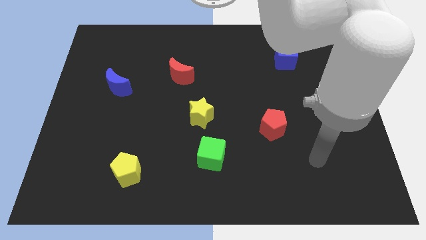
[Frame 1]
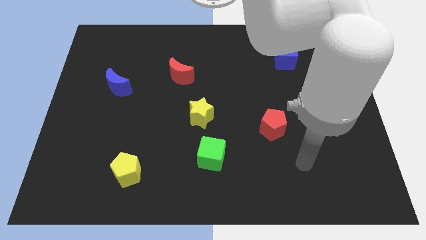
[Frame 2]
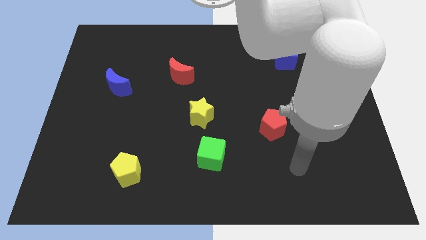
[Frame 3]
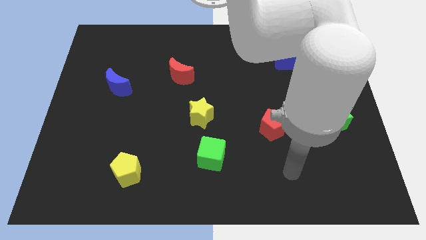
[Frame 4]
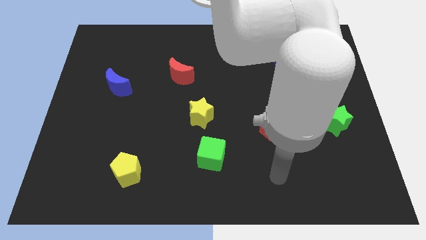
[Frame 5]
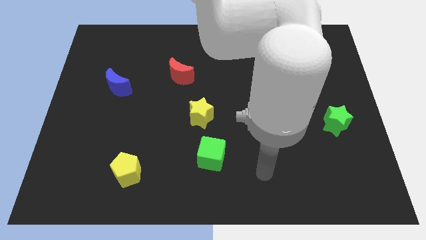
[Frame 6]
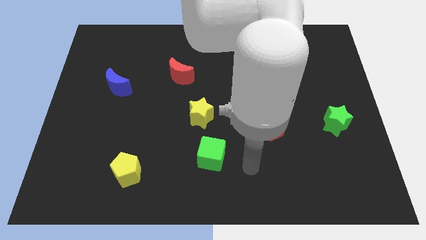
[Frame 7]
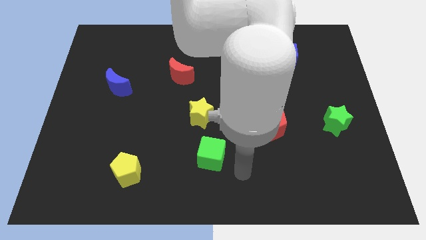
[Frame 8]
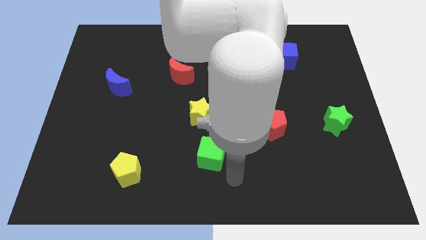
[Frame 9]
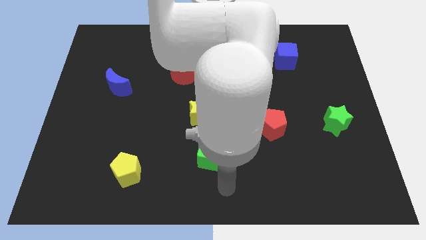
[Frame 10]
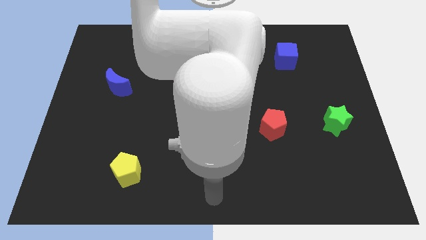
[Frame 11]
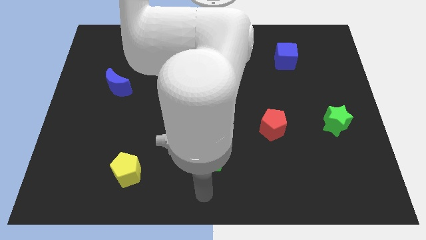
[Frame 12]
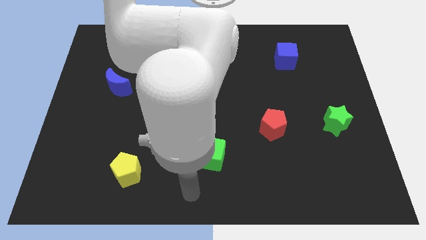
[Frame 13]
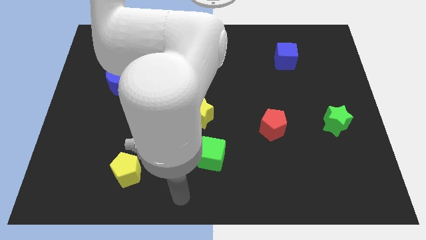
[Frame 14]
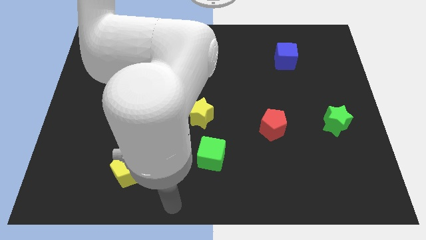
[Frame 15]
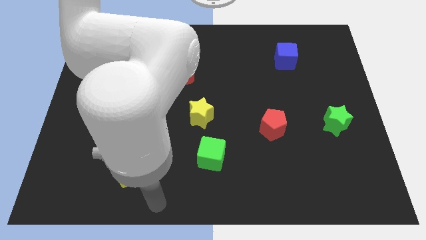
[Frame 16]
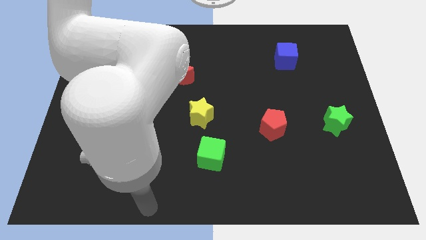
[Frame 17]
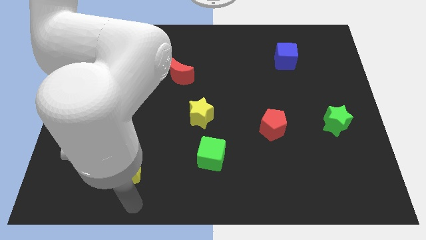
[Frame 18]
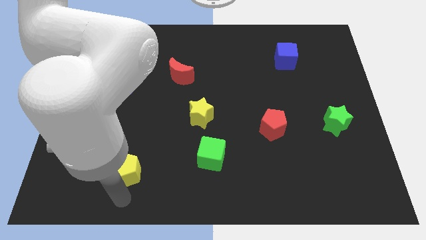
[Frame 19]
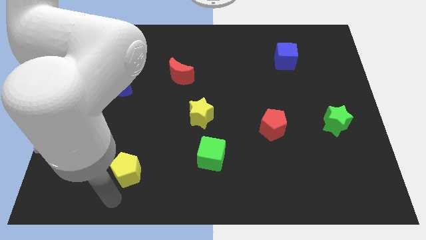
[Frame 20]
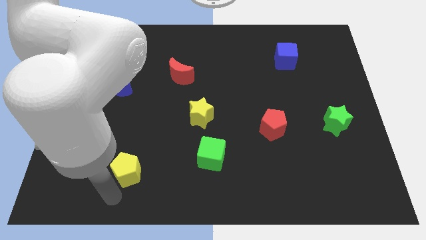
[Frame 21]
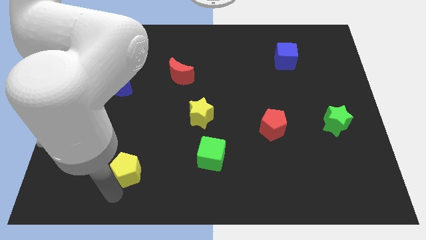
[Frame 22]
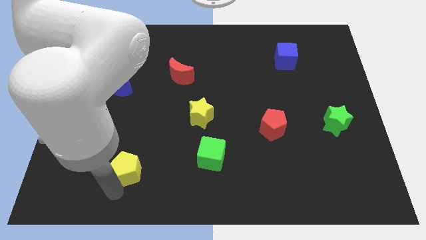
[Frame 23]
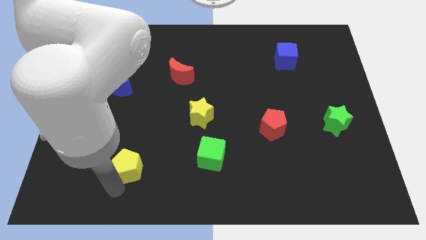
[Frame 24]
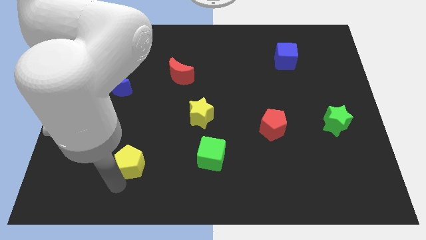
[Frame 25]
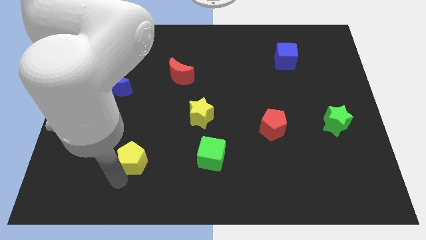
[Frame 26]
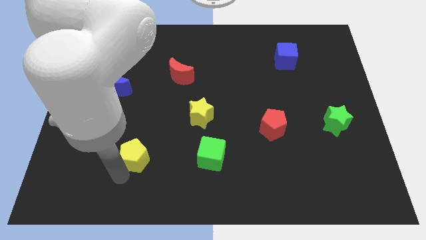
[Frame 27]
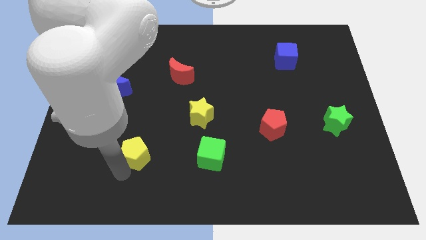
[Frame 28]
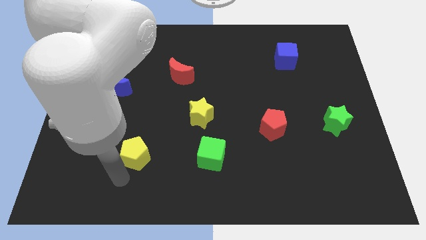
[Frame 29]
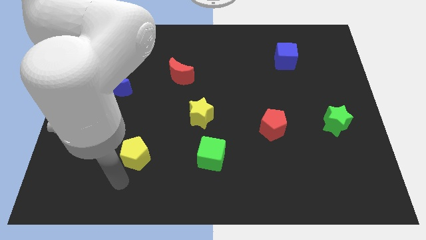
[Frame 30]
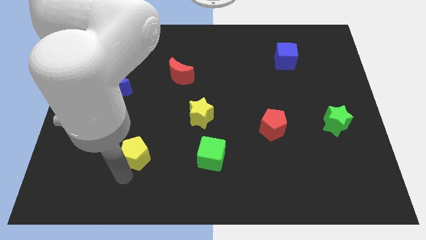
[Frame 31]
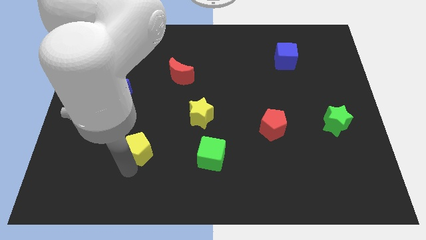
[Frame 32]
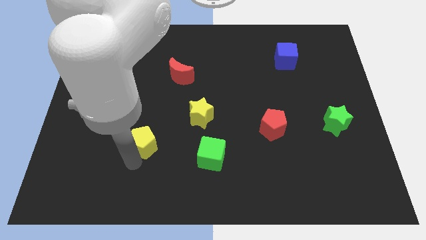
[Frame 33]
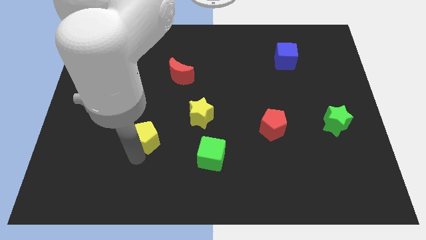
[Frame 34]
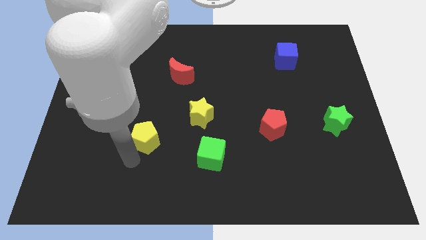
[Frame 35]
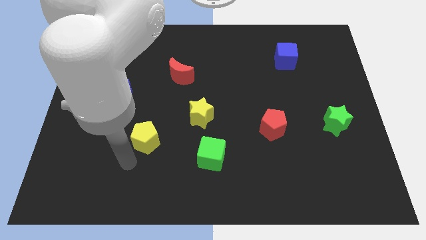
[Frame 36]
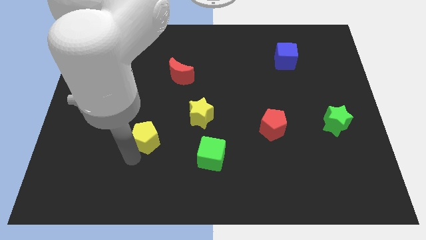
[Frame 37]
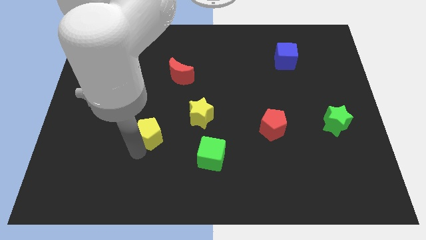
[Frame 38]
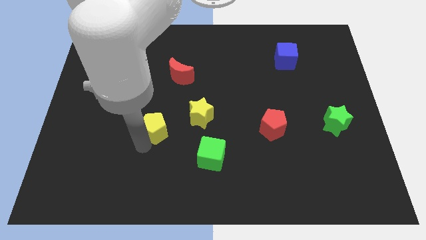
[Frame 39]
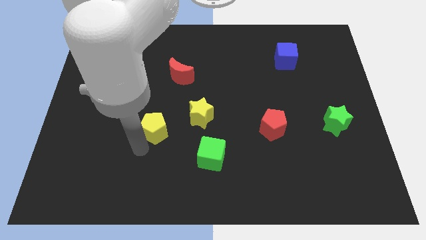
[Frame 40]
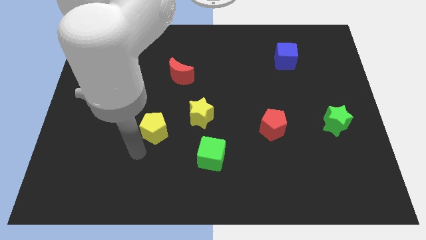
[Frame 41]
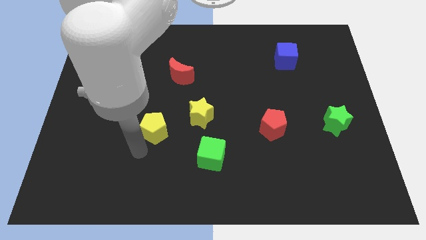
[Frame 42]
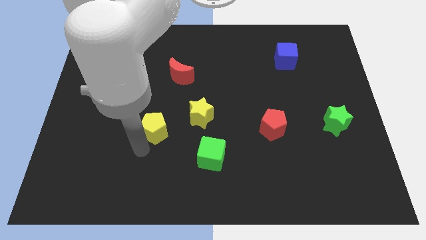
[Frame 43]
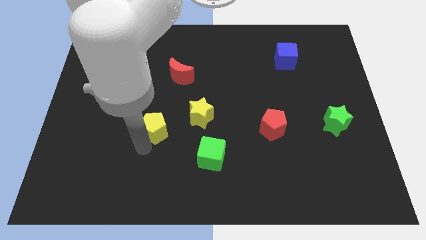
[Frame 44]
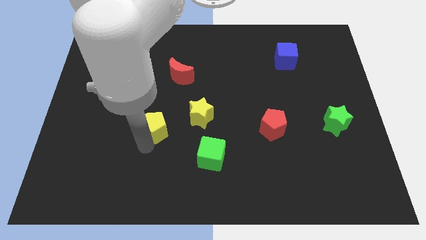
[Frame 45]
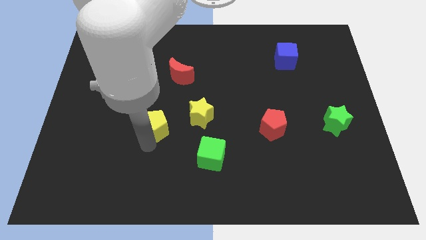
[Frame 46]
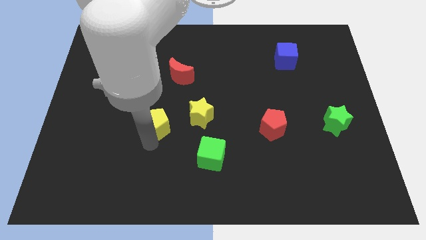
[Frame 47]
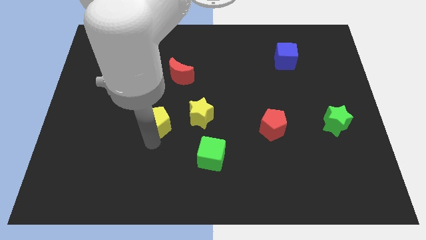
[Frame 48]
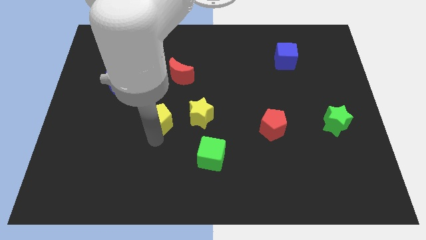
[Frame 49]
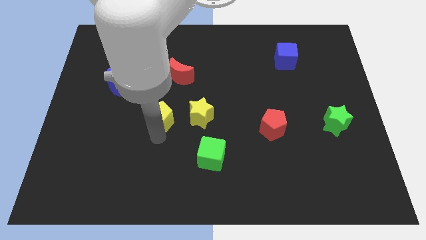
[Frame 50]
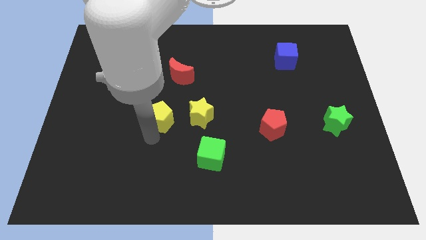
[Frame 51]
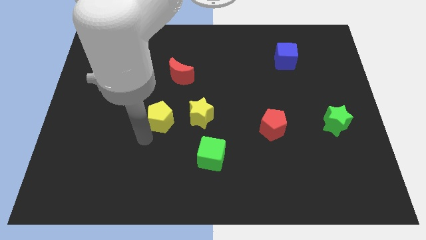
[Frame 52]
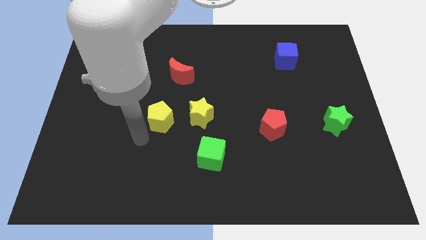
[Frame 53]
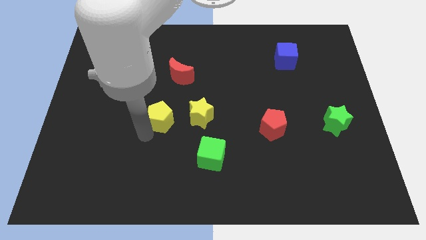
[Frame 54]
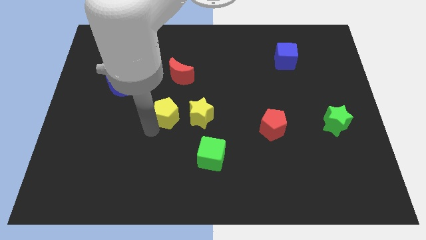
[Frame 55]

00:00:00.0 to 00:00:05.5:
slide the yellow pentagon to the center of the board

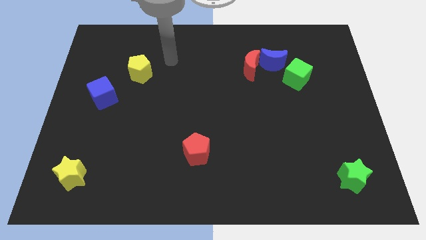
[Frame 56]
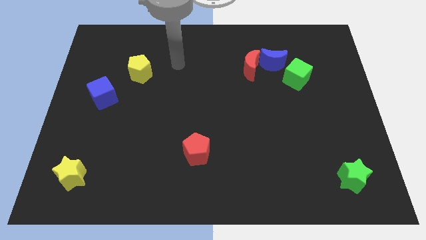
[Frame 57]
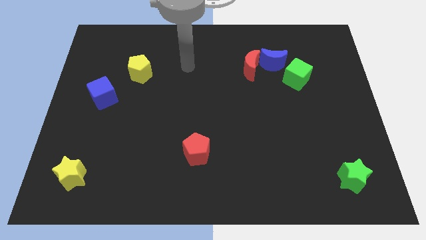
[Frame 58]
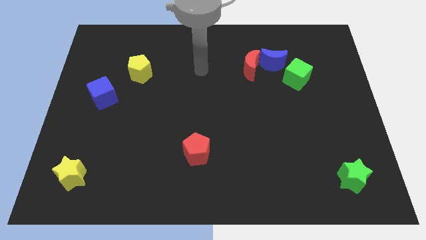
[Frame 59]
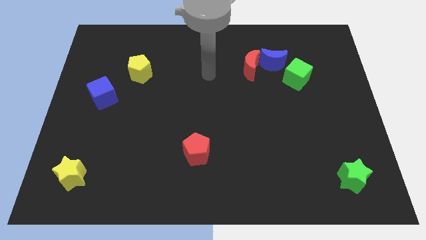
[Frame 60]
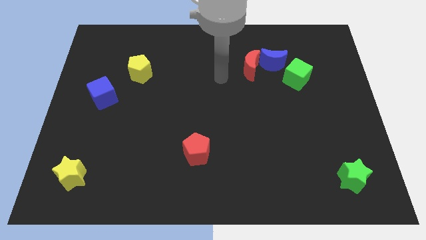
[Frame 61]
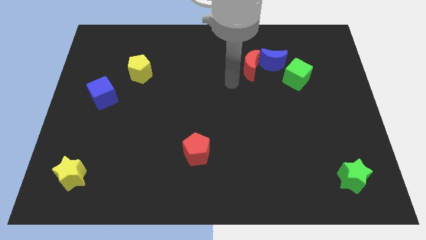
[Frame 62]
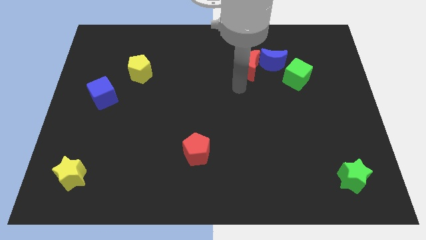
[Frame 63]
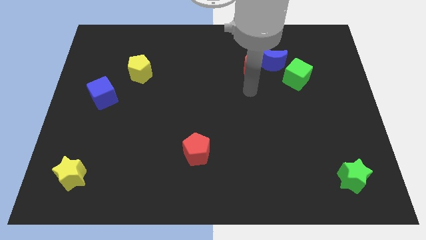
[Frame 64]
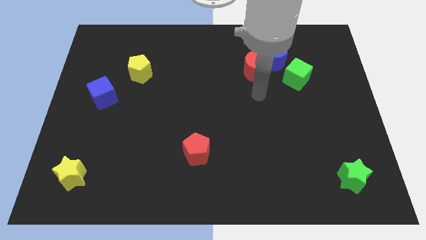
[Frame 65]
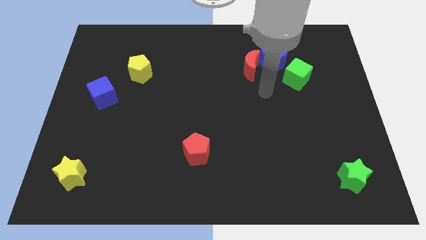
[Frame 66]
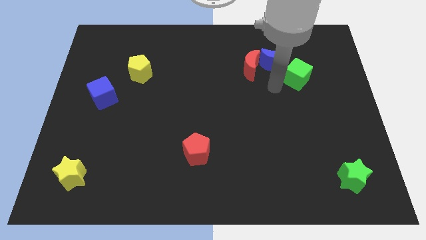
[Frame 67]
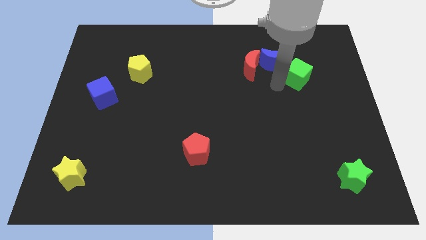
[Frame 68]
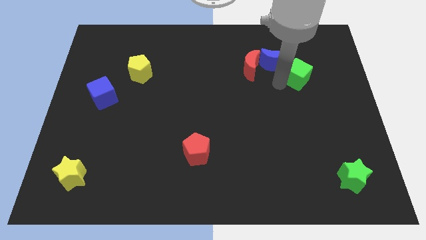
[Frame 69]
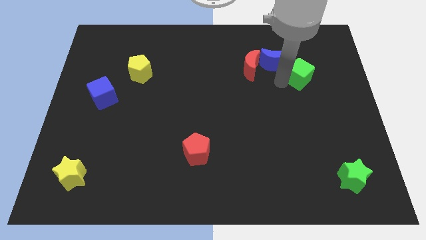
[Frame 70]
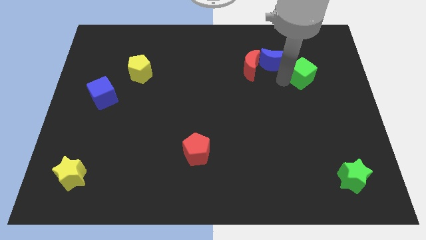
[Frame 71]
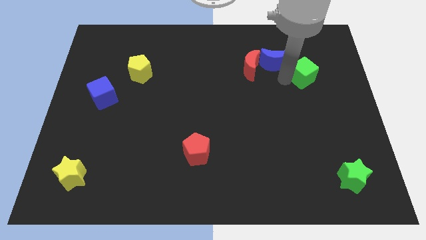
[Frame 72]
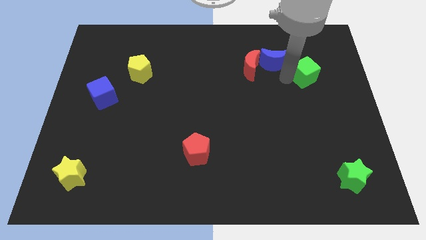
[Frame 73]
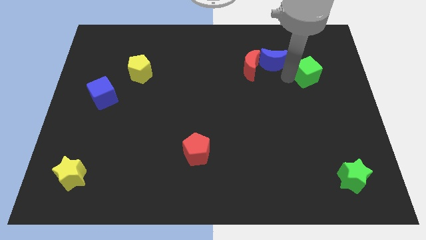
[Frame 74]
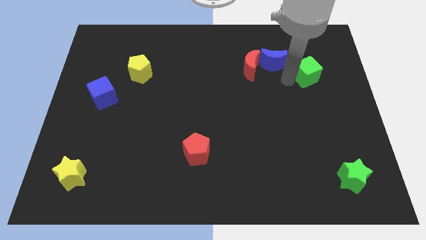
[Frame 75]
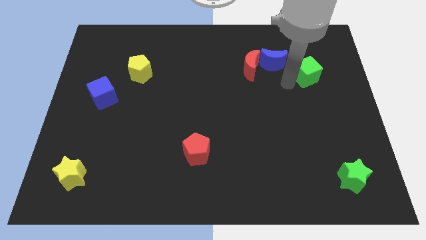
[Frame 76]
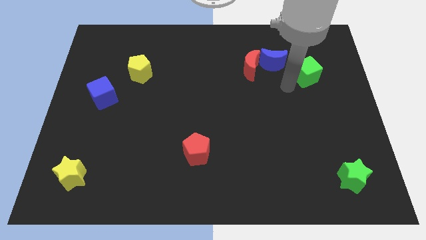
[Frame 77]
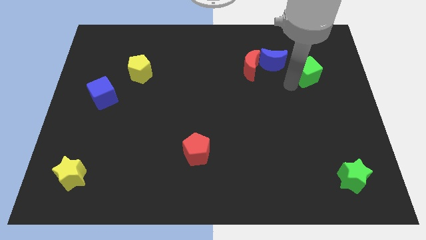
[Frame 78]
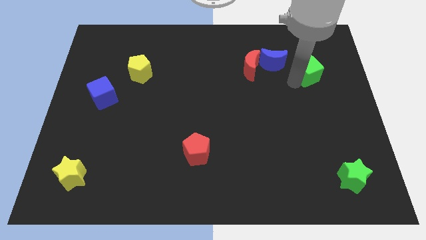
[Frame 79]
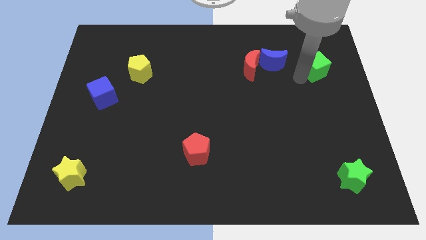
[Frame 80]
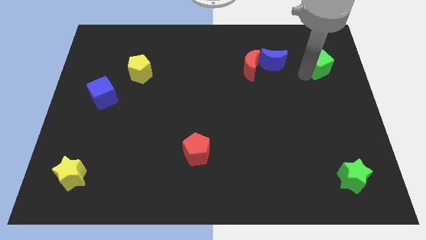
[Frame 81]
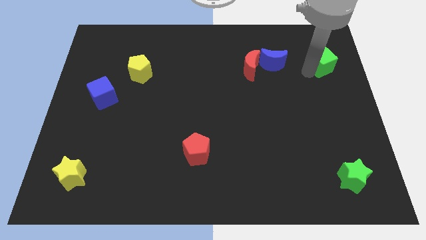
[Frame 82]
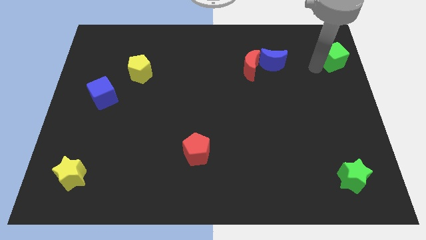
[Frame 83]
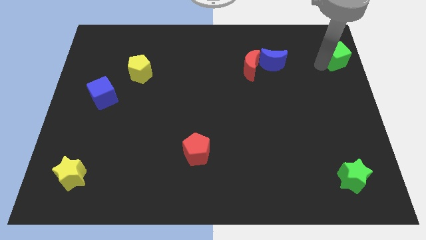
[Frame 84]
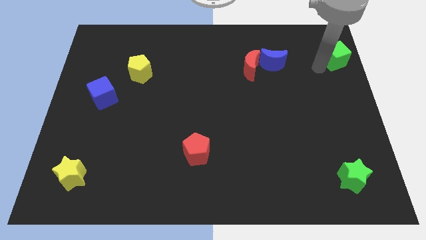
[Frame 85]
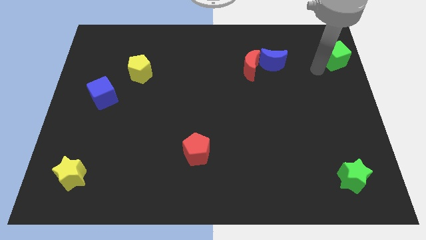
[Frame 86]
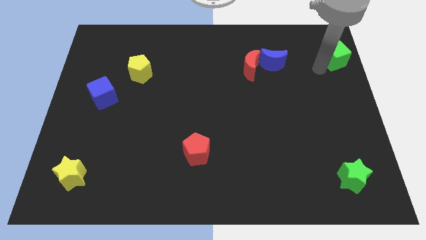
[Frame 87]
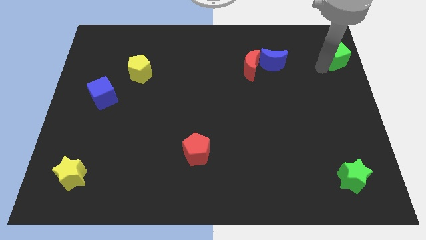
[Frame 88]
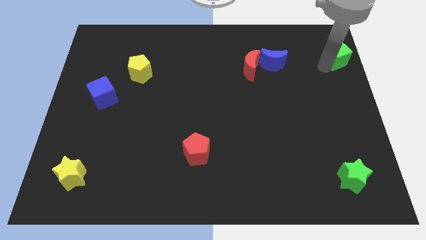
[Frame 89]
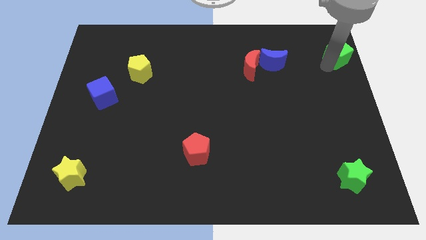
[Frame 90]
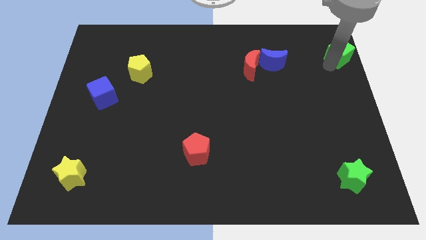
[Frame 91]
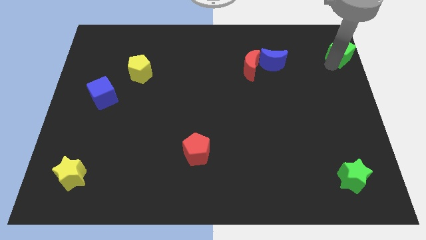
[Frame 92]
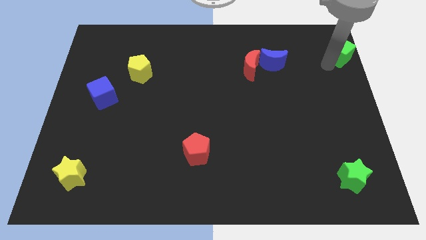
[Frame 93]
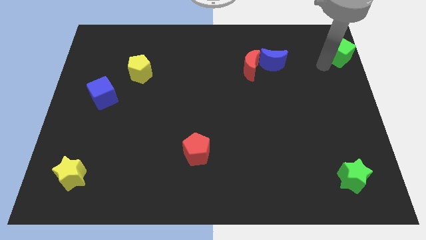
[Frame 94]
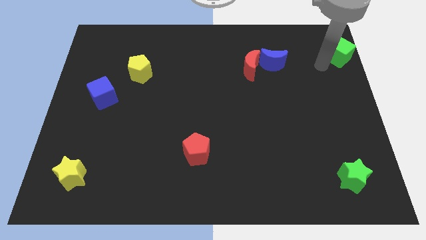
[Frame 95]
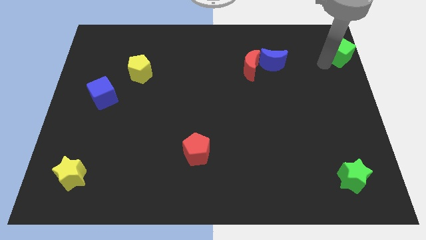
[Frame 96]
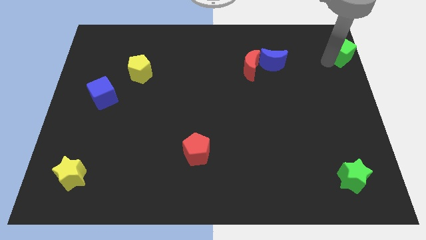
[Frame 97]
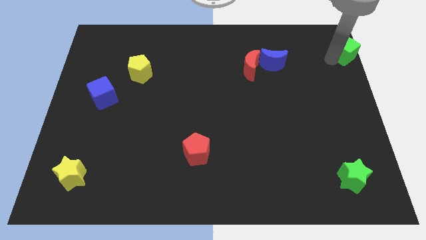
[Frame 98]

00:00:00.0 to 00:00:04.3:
slide the green cube to the upper right corner
